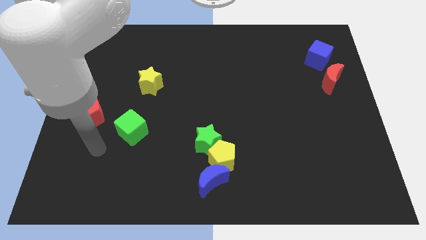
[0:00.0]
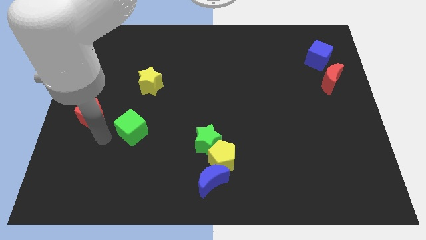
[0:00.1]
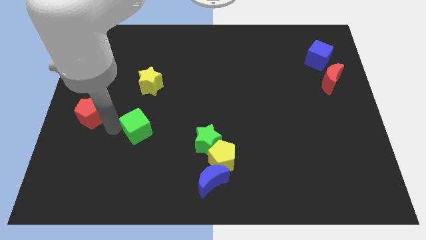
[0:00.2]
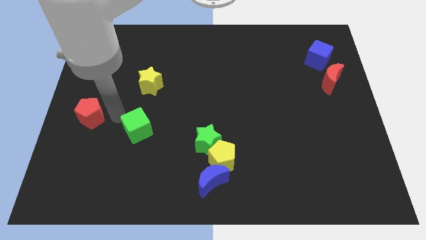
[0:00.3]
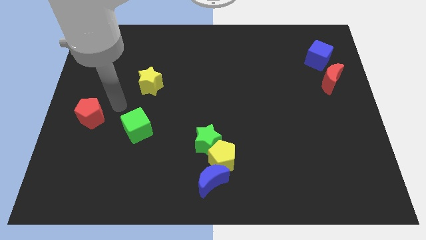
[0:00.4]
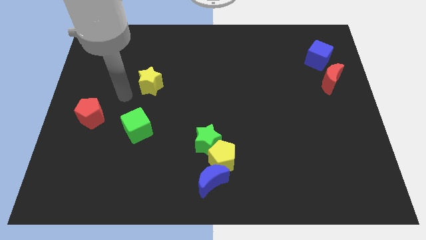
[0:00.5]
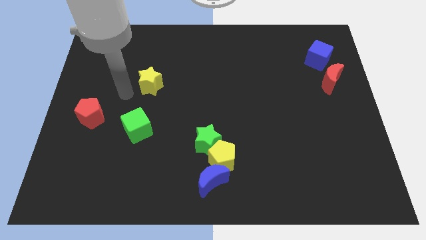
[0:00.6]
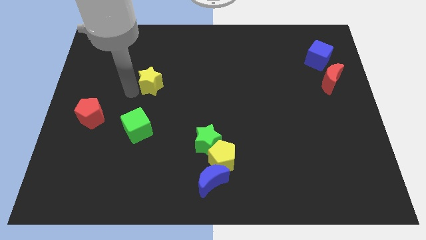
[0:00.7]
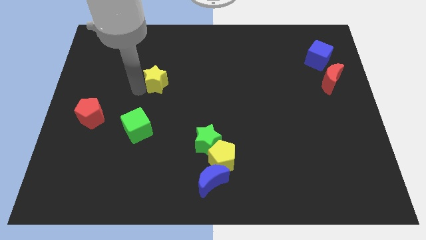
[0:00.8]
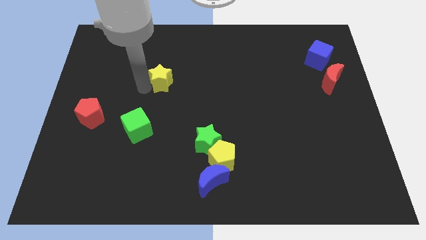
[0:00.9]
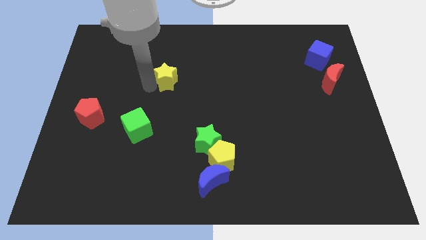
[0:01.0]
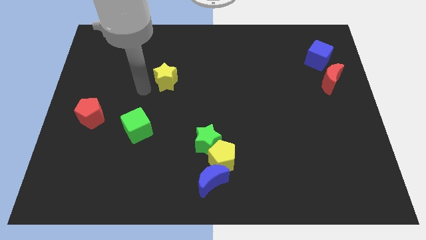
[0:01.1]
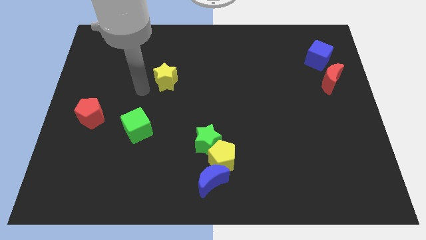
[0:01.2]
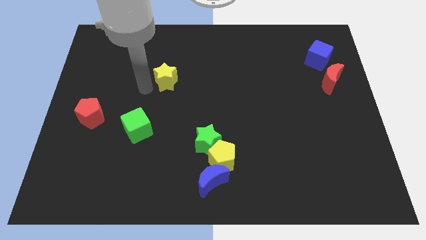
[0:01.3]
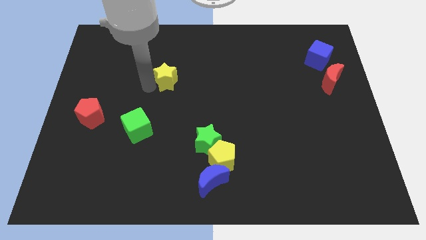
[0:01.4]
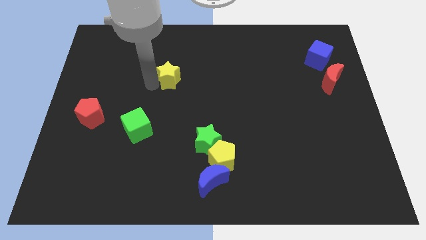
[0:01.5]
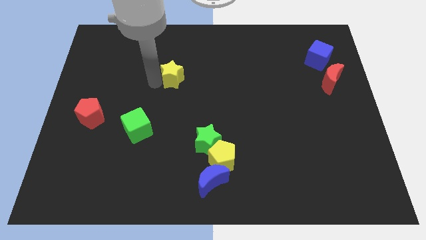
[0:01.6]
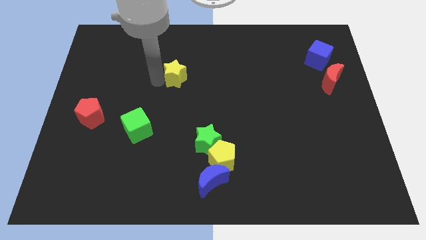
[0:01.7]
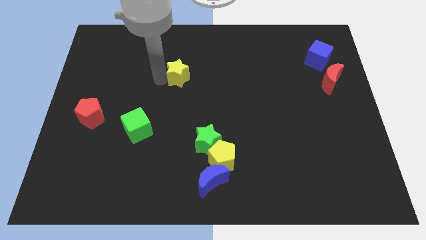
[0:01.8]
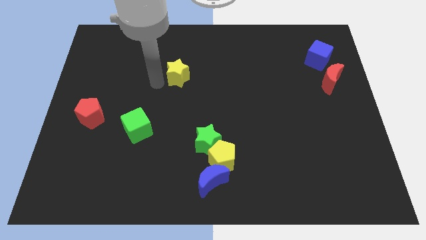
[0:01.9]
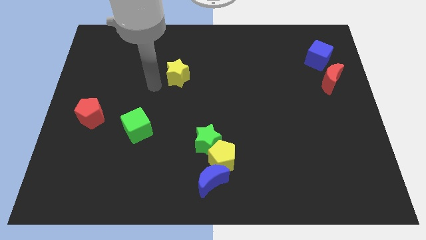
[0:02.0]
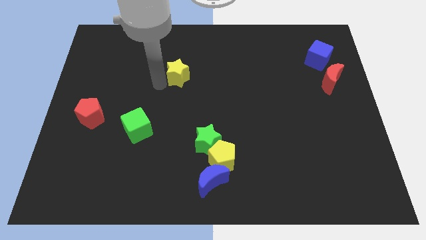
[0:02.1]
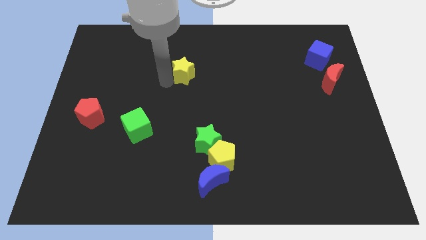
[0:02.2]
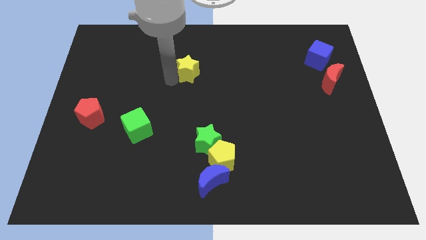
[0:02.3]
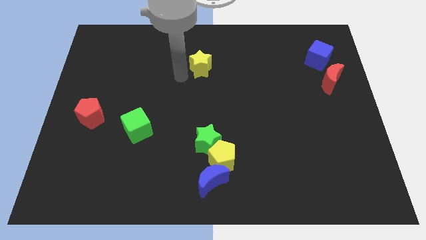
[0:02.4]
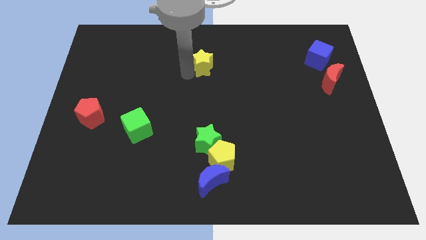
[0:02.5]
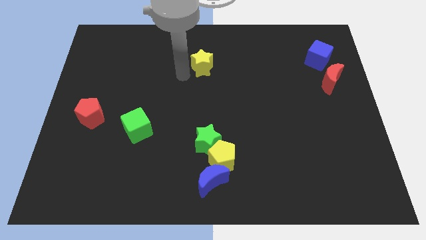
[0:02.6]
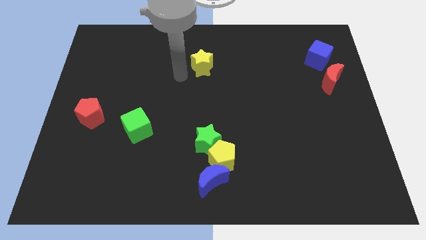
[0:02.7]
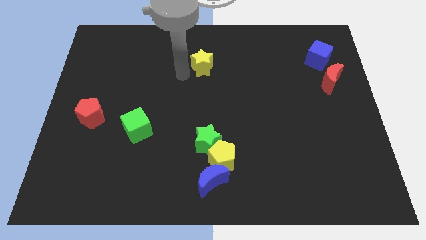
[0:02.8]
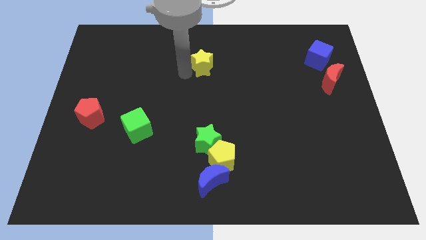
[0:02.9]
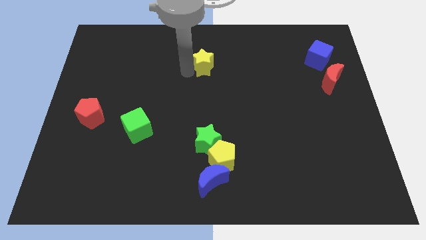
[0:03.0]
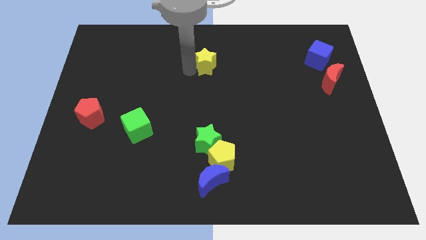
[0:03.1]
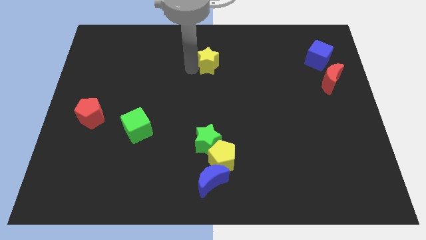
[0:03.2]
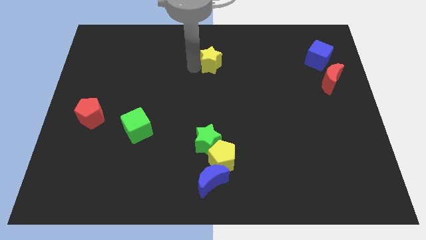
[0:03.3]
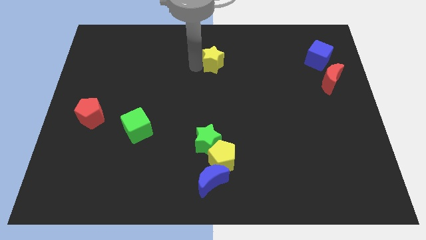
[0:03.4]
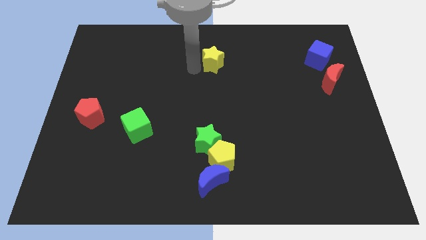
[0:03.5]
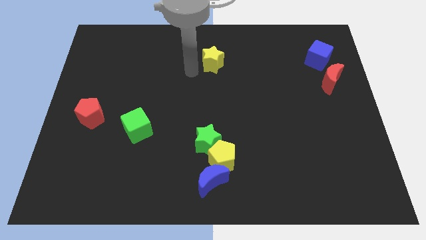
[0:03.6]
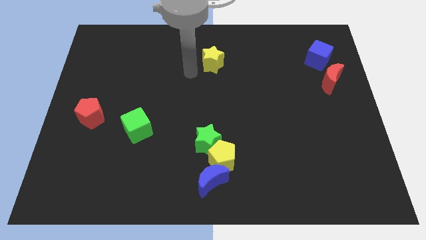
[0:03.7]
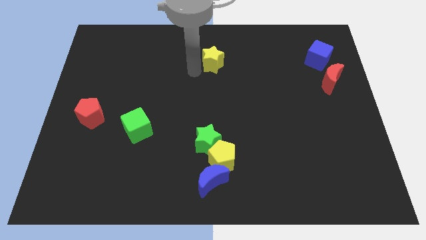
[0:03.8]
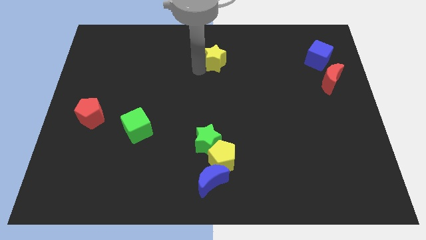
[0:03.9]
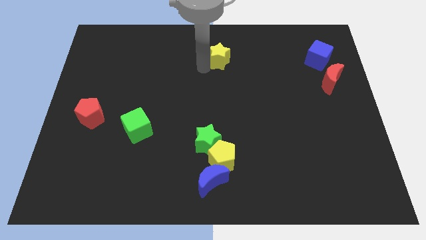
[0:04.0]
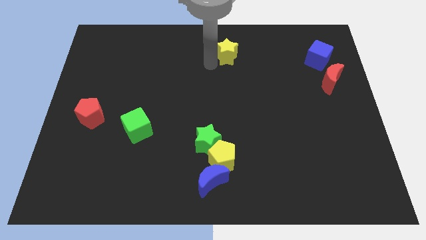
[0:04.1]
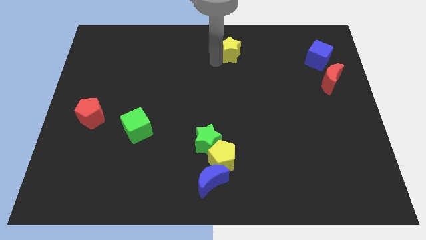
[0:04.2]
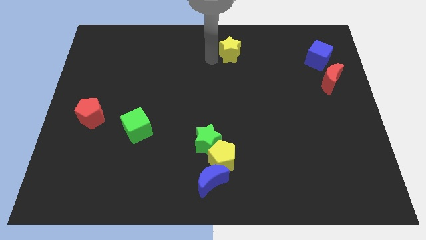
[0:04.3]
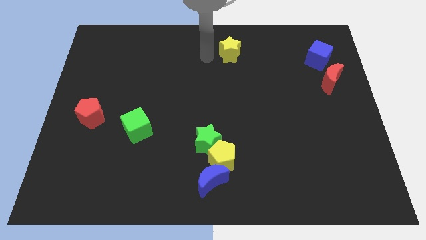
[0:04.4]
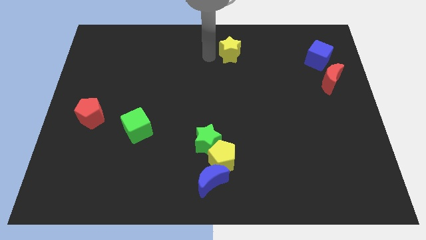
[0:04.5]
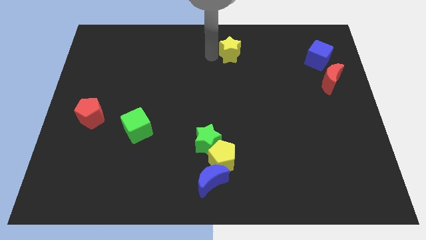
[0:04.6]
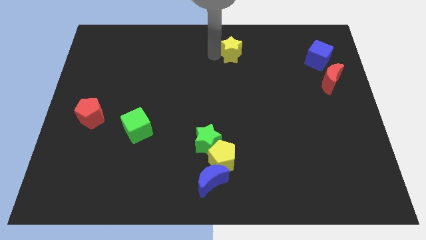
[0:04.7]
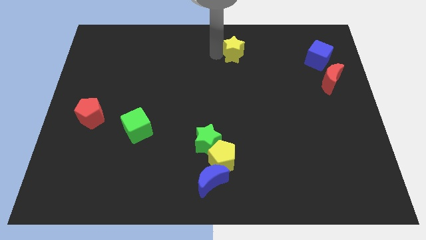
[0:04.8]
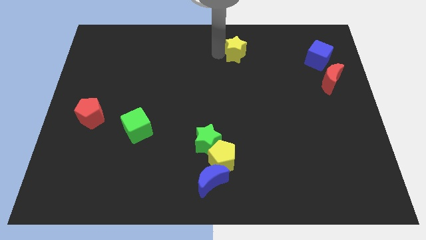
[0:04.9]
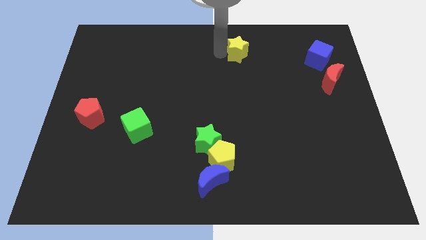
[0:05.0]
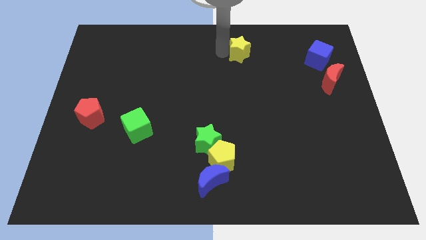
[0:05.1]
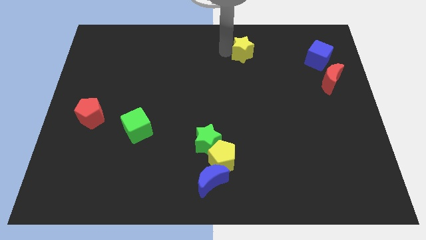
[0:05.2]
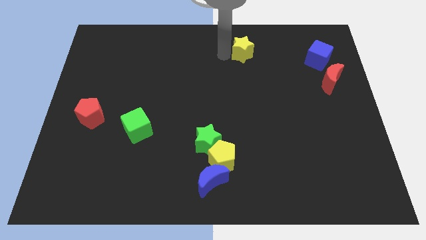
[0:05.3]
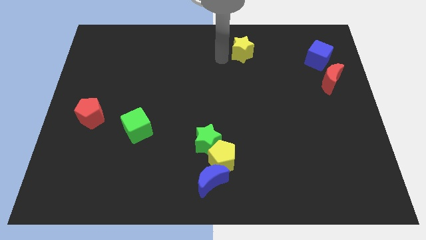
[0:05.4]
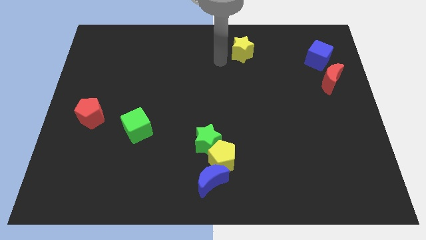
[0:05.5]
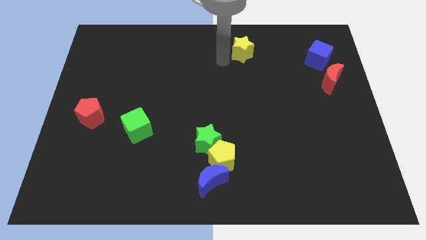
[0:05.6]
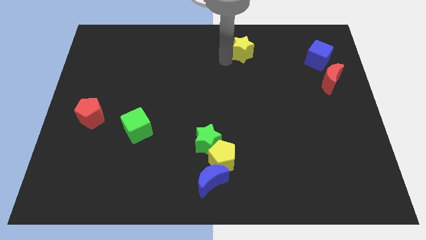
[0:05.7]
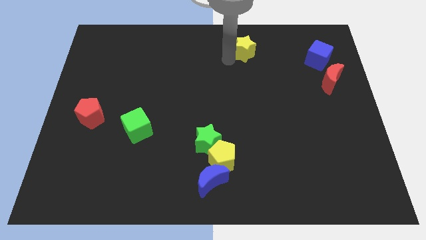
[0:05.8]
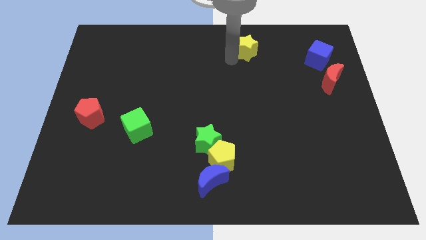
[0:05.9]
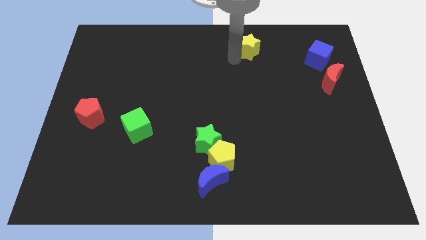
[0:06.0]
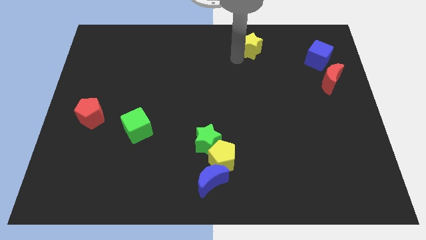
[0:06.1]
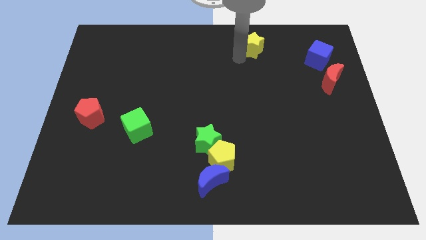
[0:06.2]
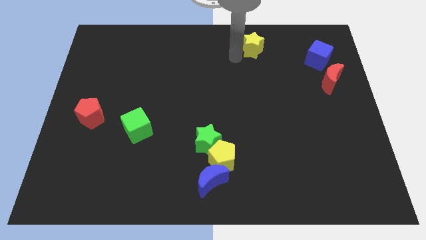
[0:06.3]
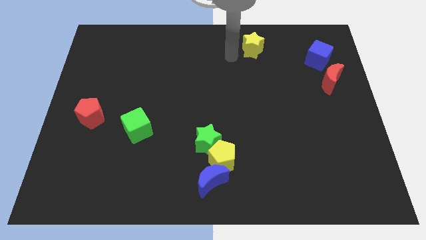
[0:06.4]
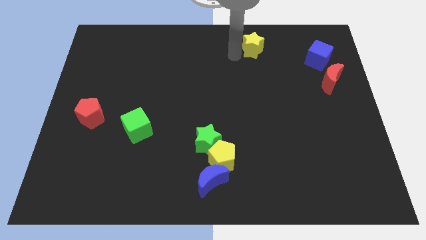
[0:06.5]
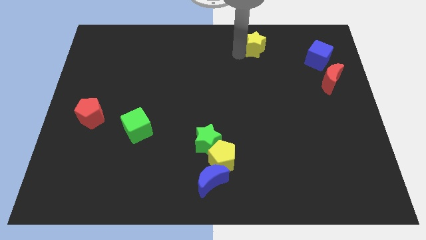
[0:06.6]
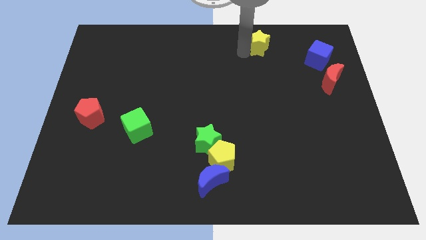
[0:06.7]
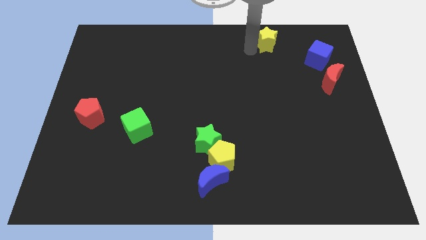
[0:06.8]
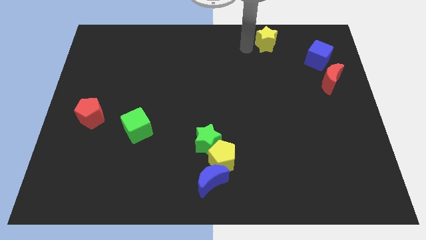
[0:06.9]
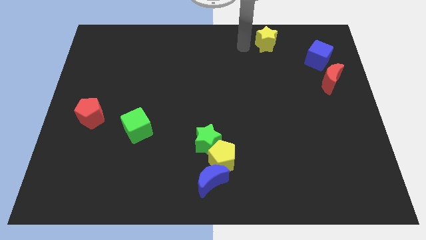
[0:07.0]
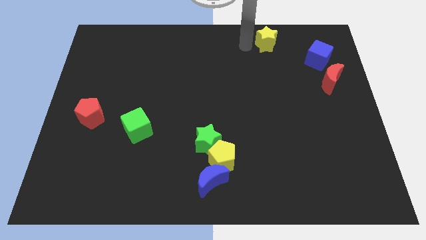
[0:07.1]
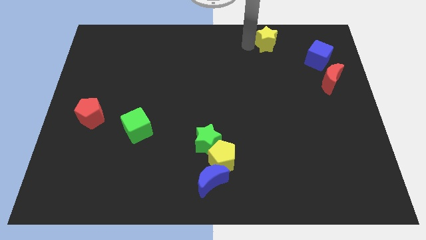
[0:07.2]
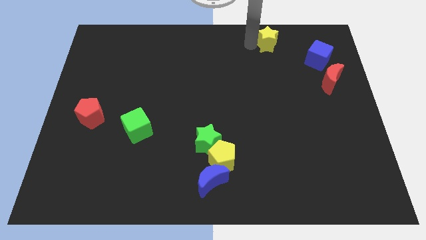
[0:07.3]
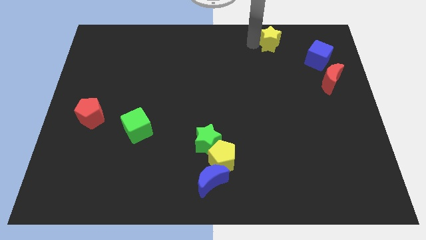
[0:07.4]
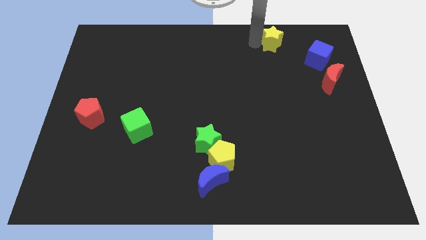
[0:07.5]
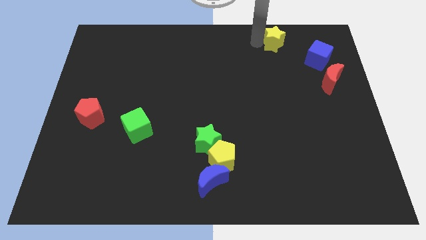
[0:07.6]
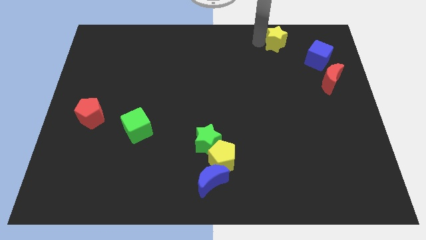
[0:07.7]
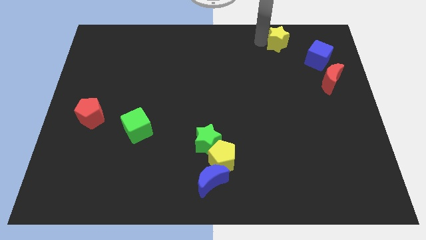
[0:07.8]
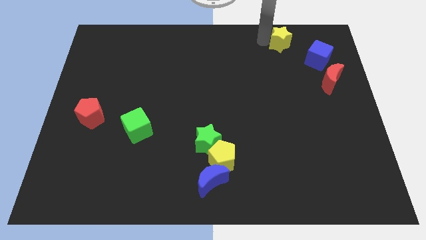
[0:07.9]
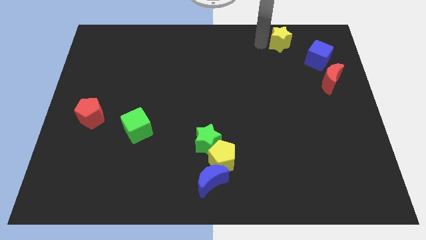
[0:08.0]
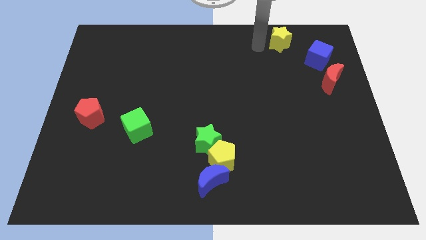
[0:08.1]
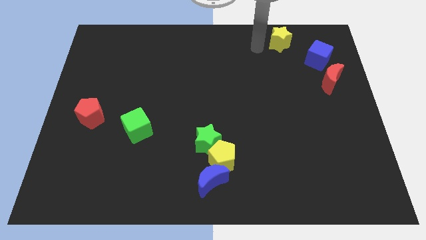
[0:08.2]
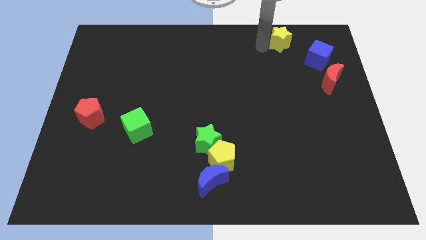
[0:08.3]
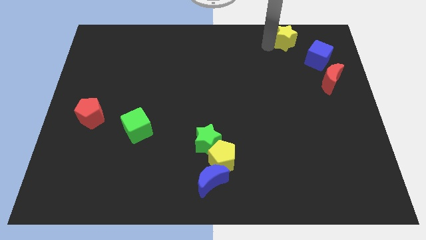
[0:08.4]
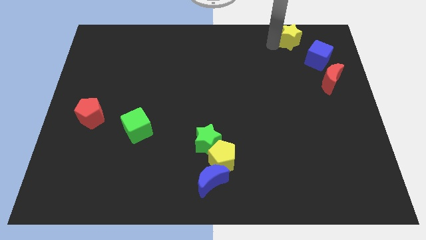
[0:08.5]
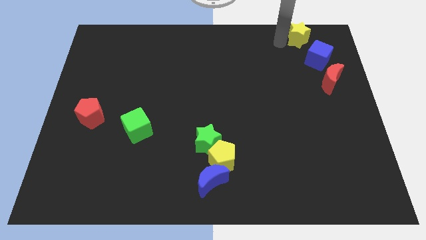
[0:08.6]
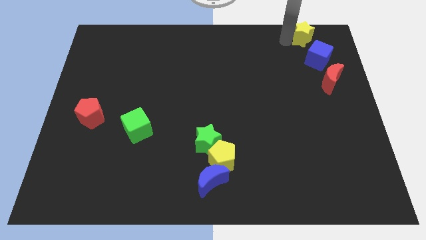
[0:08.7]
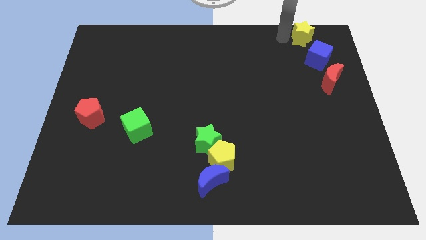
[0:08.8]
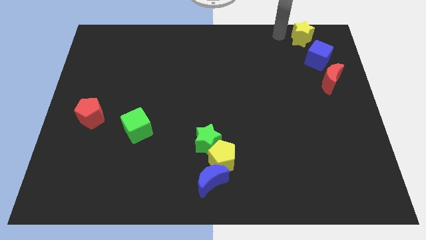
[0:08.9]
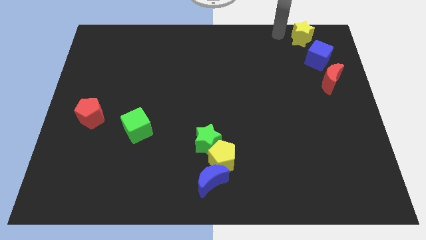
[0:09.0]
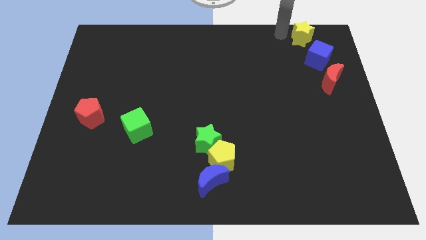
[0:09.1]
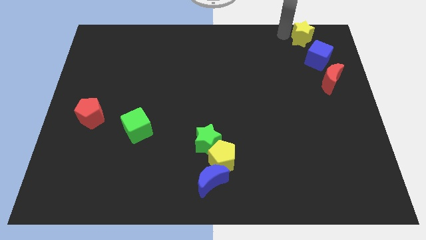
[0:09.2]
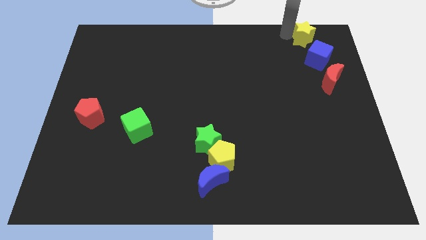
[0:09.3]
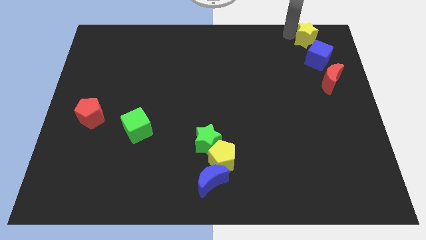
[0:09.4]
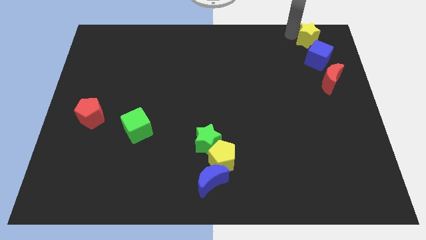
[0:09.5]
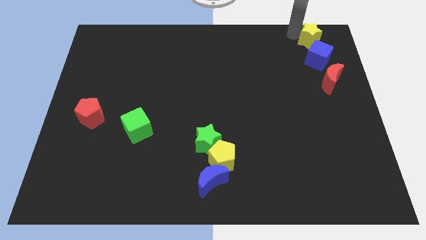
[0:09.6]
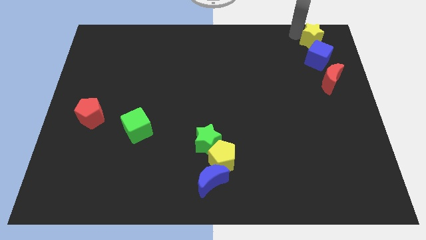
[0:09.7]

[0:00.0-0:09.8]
slide the yellow star to the top right corner
